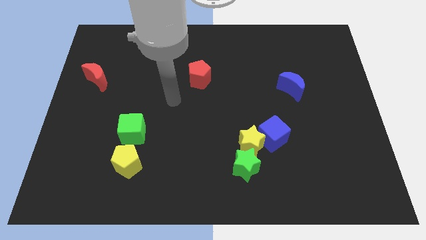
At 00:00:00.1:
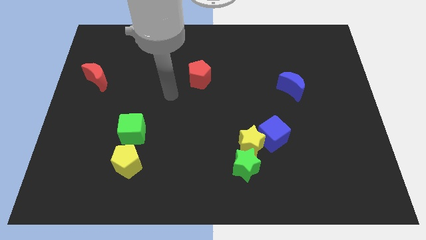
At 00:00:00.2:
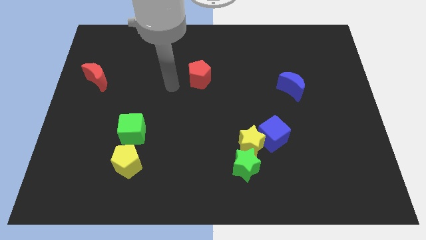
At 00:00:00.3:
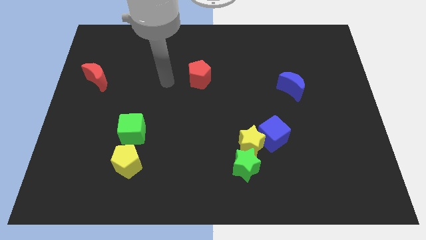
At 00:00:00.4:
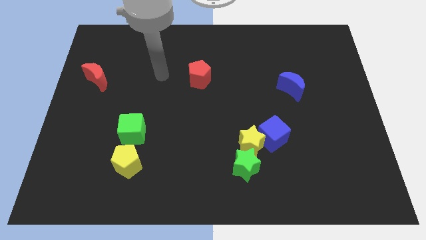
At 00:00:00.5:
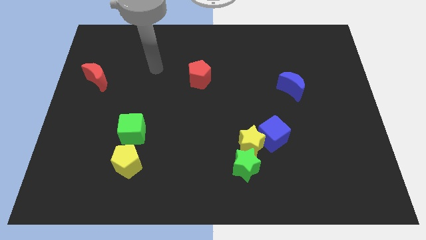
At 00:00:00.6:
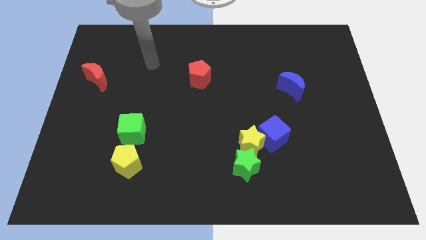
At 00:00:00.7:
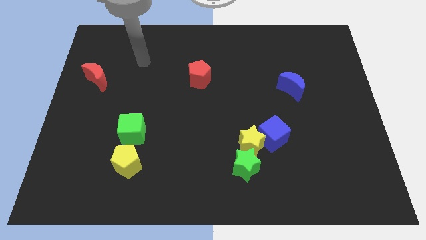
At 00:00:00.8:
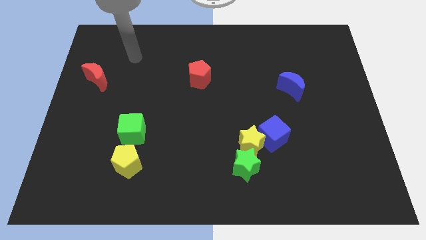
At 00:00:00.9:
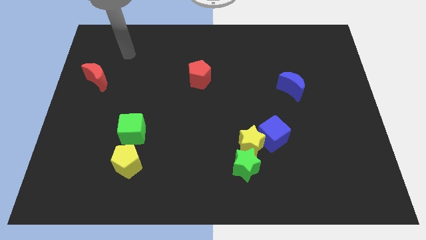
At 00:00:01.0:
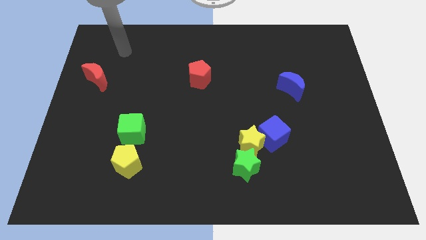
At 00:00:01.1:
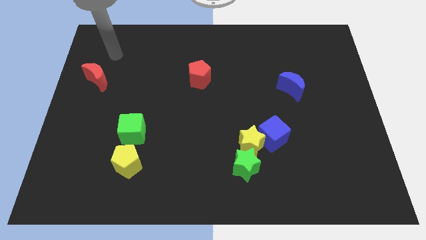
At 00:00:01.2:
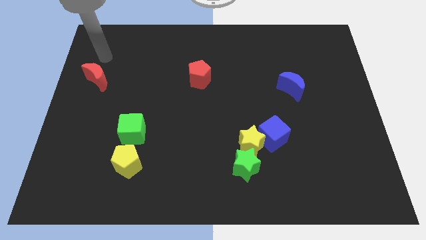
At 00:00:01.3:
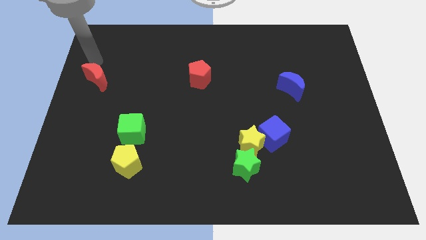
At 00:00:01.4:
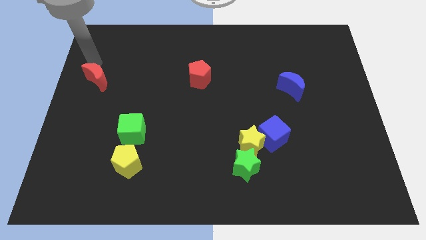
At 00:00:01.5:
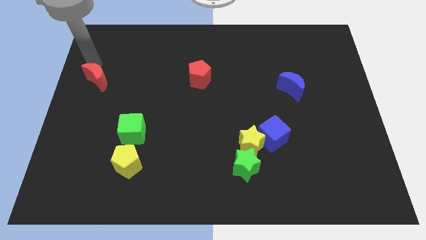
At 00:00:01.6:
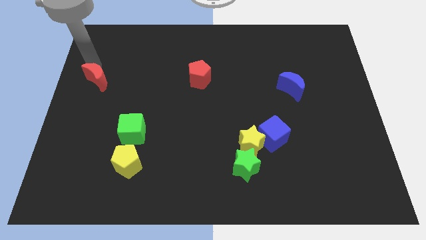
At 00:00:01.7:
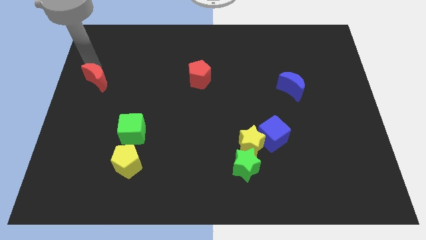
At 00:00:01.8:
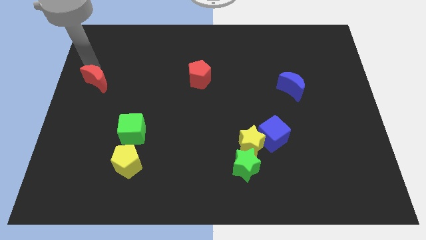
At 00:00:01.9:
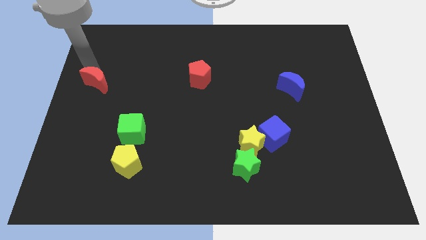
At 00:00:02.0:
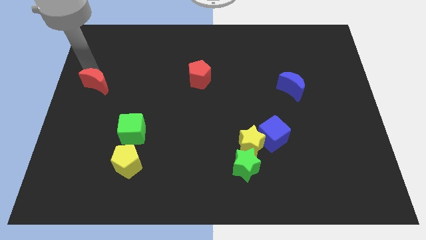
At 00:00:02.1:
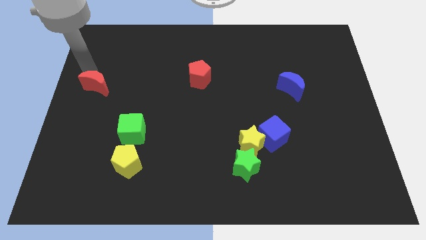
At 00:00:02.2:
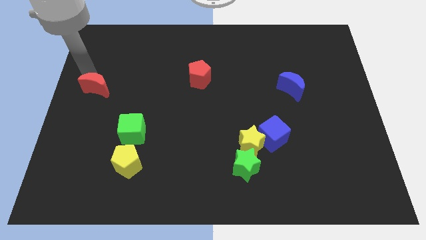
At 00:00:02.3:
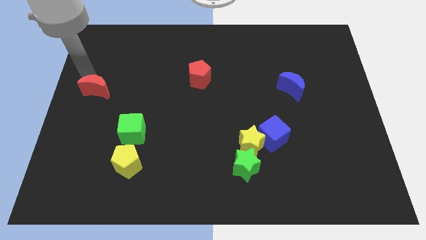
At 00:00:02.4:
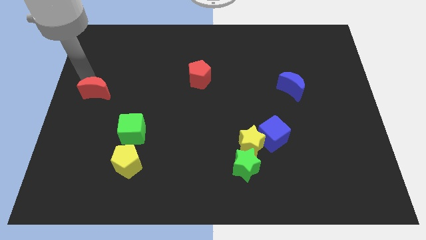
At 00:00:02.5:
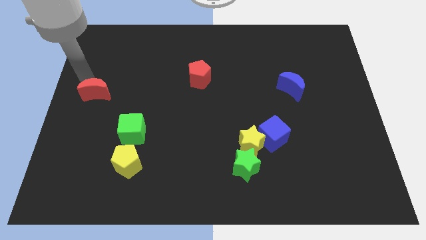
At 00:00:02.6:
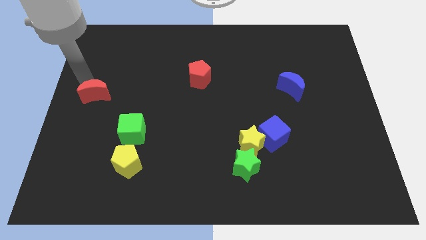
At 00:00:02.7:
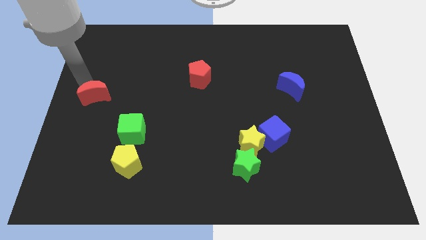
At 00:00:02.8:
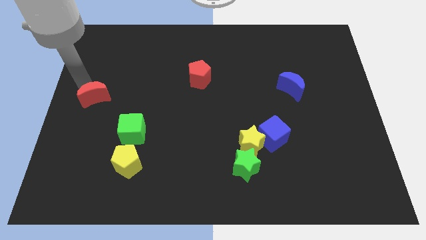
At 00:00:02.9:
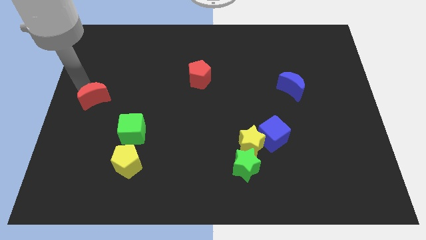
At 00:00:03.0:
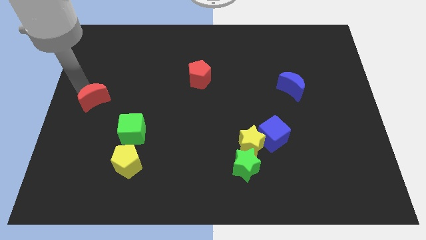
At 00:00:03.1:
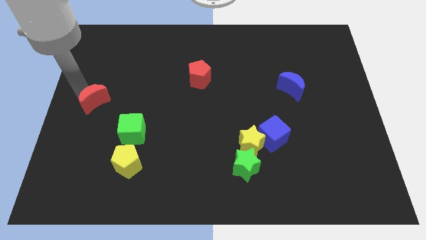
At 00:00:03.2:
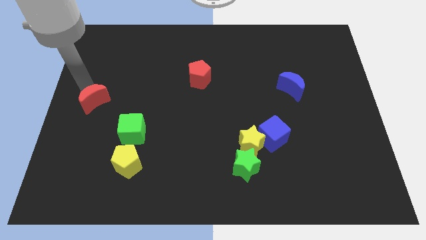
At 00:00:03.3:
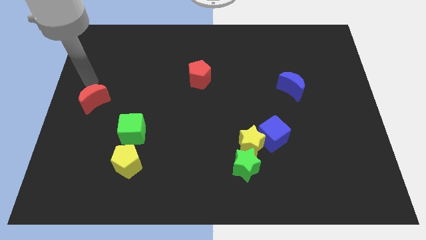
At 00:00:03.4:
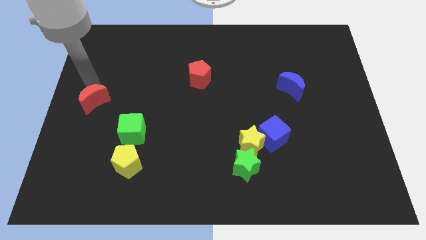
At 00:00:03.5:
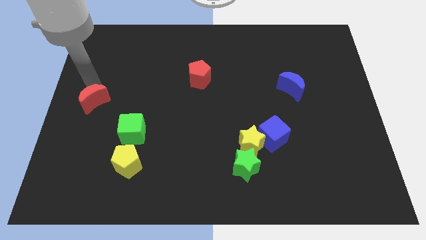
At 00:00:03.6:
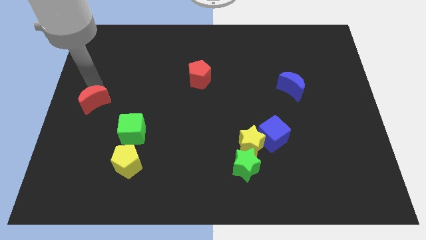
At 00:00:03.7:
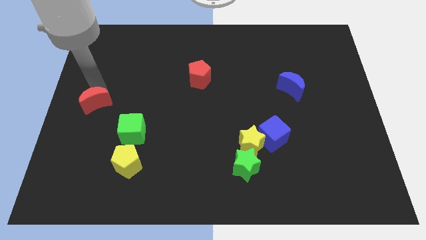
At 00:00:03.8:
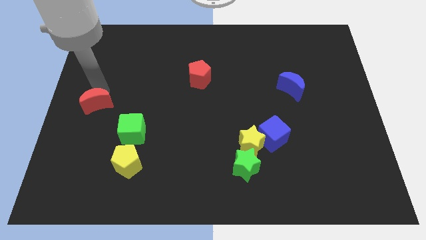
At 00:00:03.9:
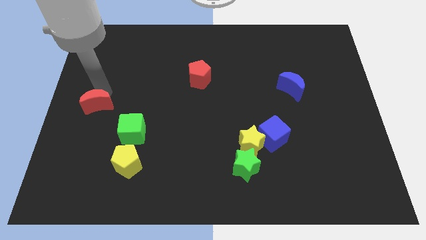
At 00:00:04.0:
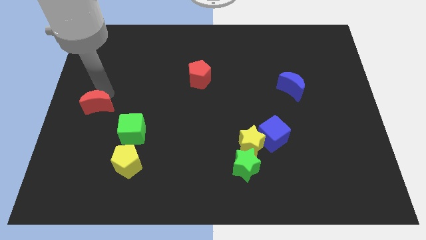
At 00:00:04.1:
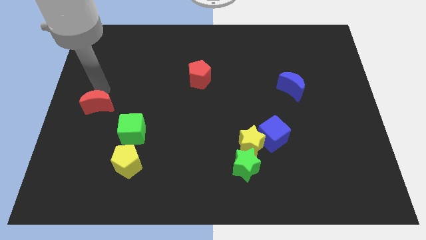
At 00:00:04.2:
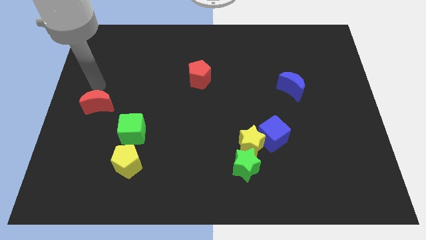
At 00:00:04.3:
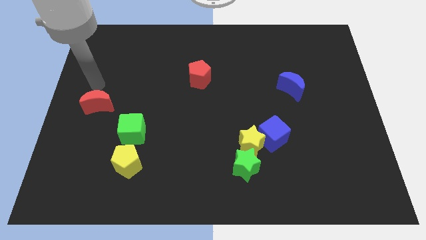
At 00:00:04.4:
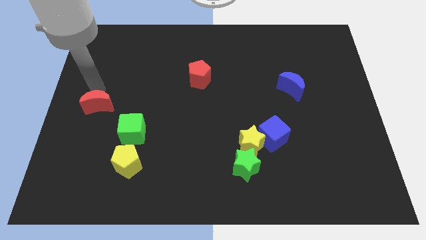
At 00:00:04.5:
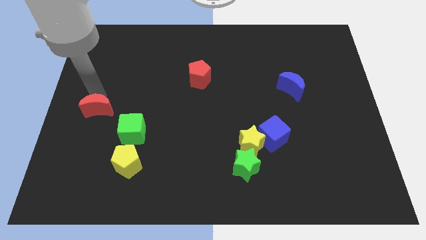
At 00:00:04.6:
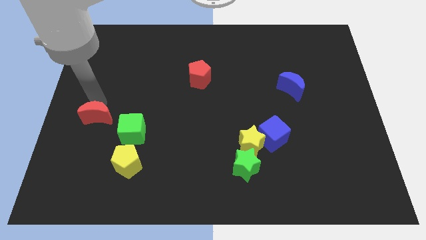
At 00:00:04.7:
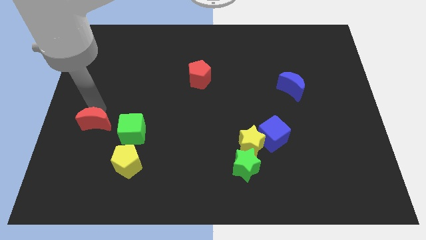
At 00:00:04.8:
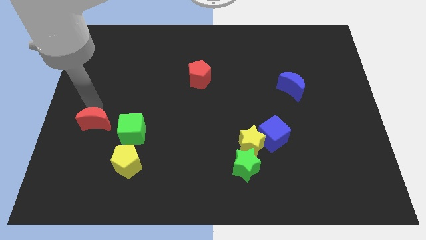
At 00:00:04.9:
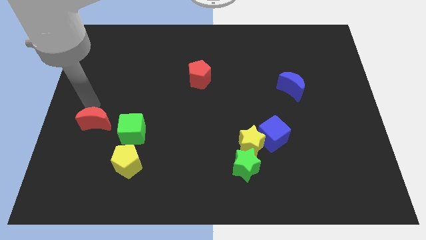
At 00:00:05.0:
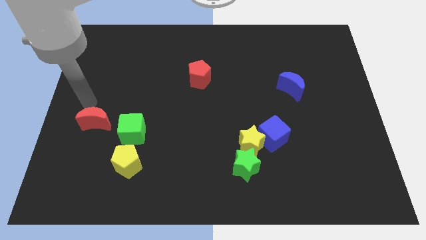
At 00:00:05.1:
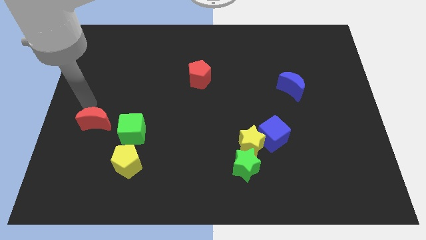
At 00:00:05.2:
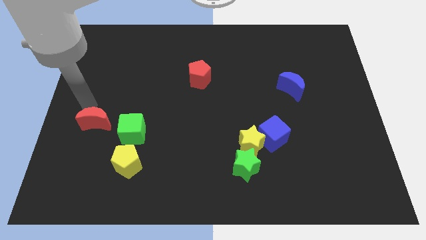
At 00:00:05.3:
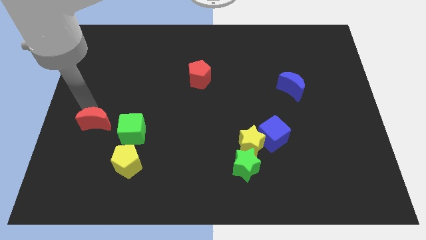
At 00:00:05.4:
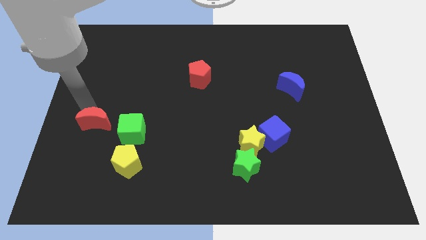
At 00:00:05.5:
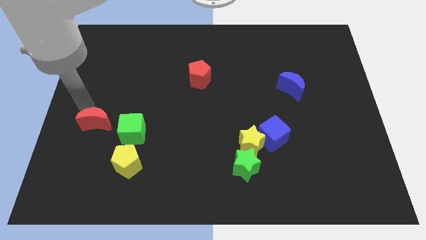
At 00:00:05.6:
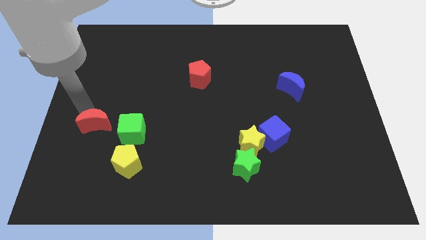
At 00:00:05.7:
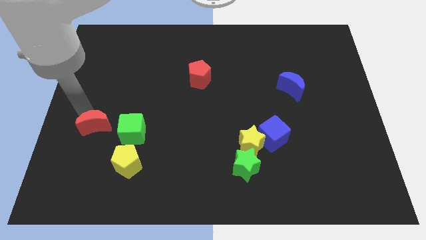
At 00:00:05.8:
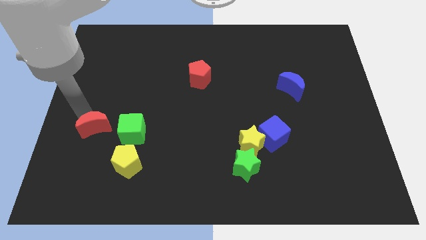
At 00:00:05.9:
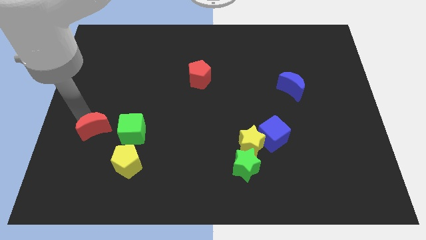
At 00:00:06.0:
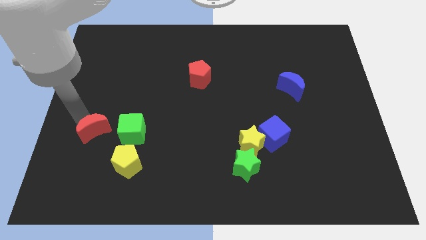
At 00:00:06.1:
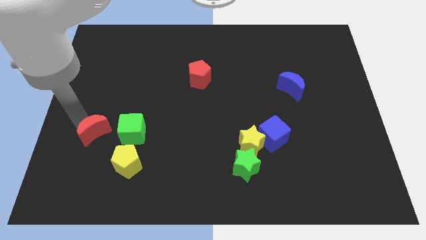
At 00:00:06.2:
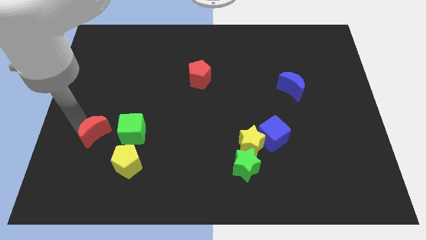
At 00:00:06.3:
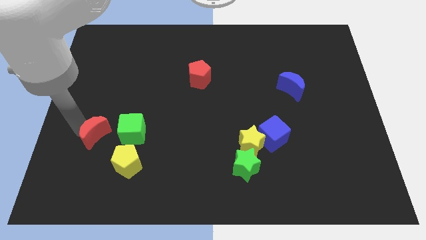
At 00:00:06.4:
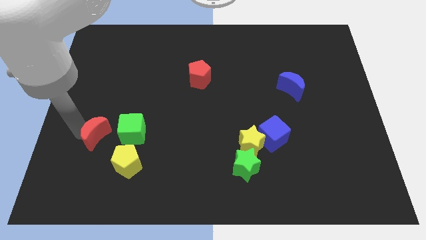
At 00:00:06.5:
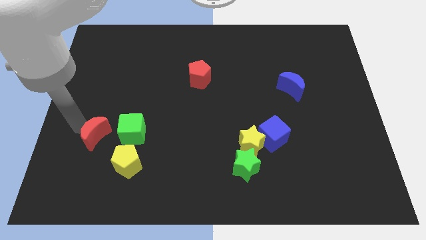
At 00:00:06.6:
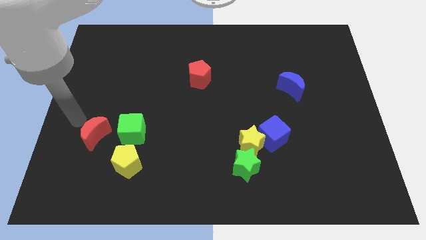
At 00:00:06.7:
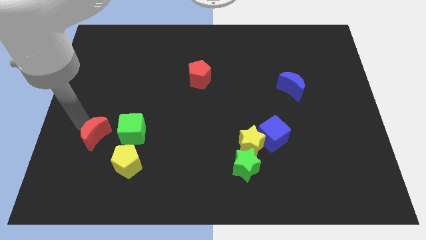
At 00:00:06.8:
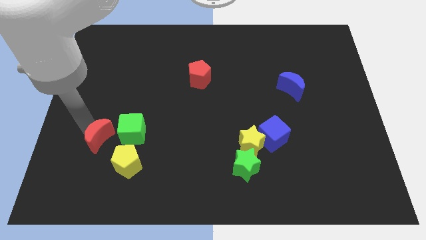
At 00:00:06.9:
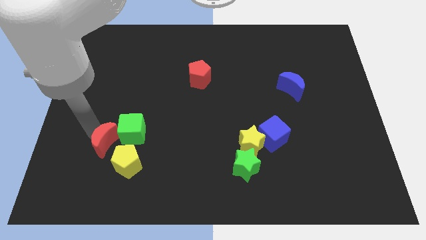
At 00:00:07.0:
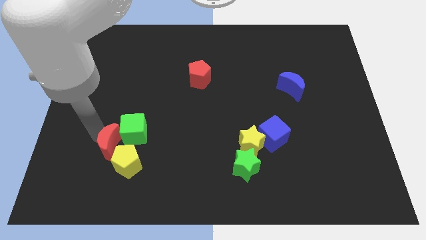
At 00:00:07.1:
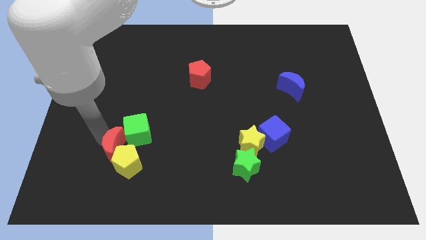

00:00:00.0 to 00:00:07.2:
slide the red moon next to the yellow pentagon
